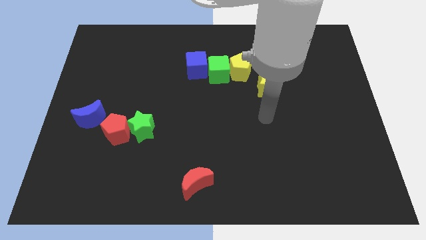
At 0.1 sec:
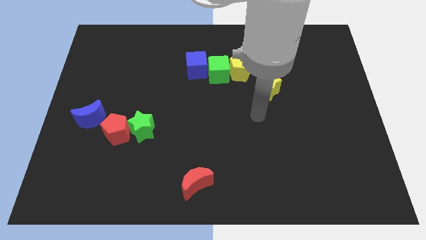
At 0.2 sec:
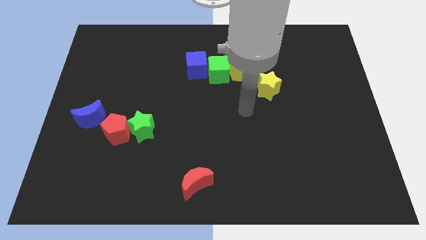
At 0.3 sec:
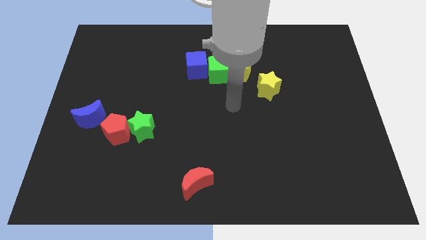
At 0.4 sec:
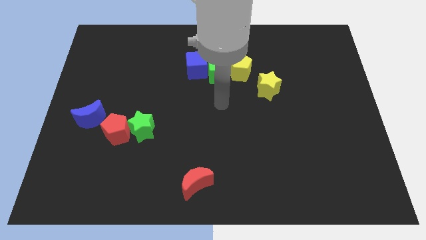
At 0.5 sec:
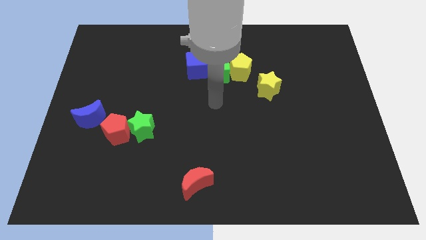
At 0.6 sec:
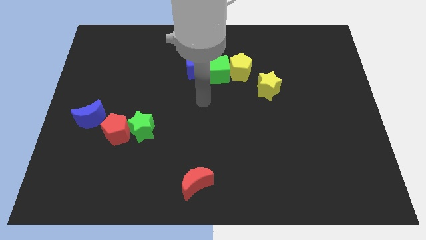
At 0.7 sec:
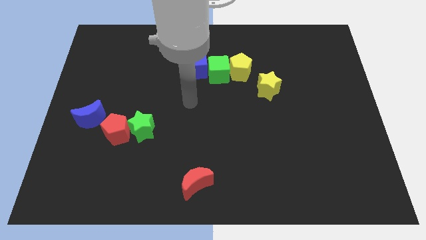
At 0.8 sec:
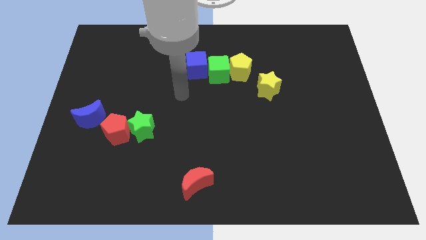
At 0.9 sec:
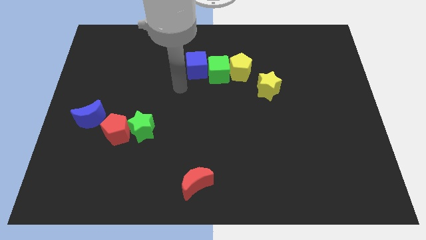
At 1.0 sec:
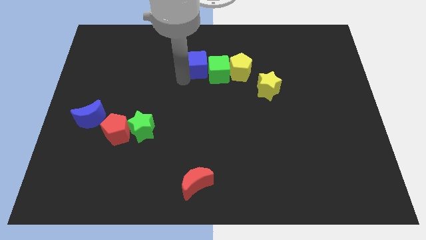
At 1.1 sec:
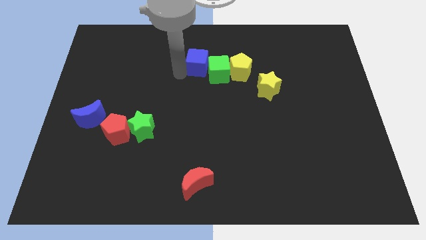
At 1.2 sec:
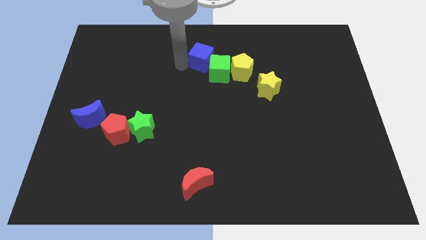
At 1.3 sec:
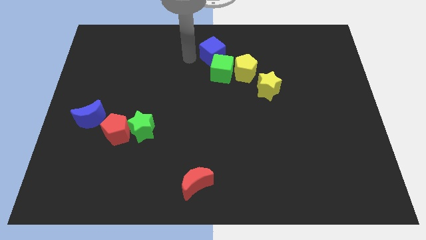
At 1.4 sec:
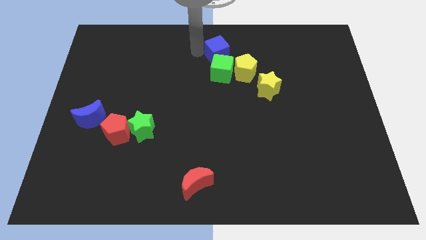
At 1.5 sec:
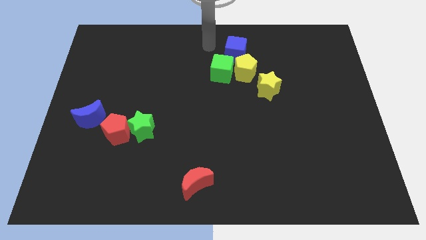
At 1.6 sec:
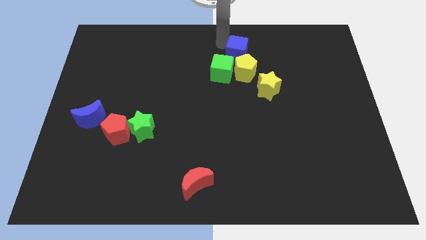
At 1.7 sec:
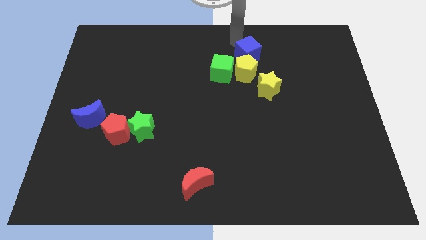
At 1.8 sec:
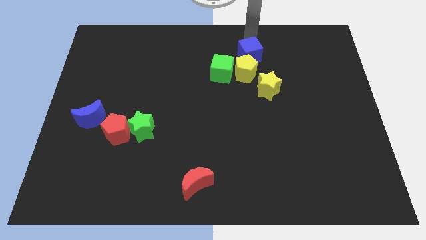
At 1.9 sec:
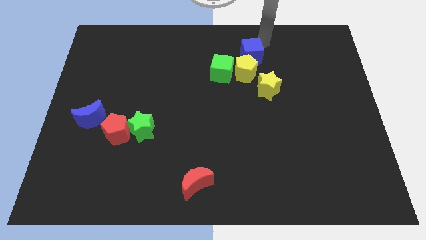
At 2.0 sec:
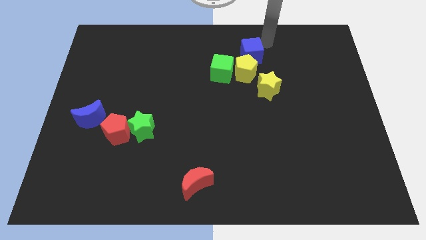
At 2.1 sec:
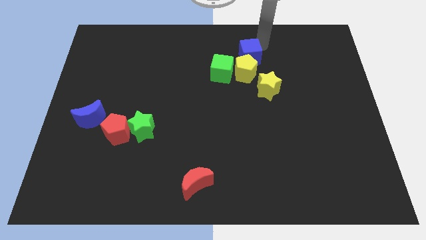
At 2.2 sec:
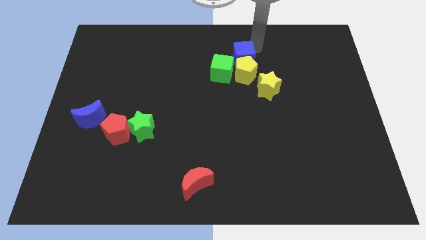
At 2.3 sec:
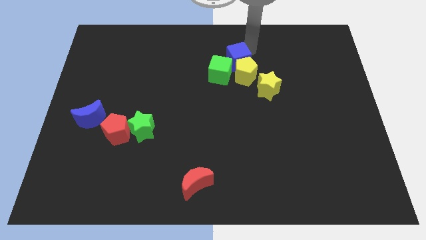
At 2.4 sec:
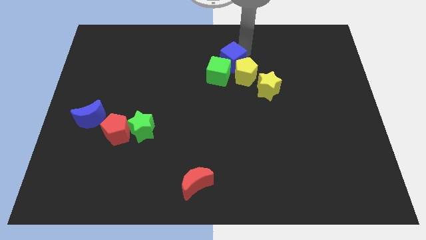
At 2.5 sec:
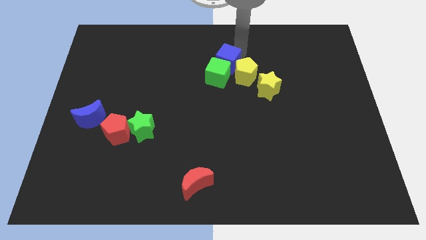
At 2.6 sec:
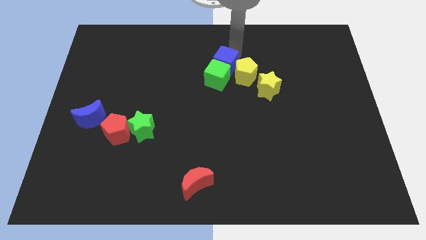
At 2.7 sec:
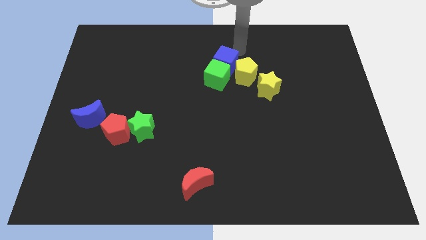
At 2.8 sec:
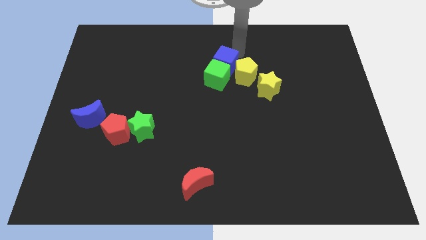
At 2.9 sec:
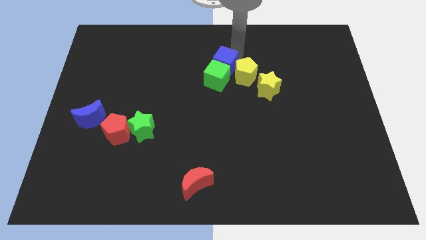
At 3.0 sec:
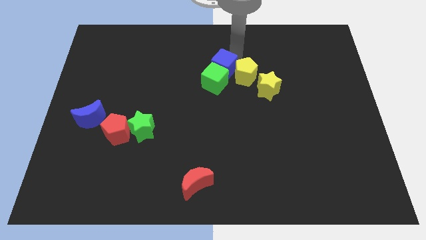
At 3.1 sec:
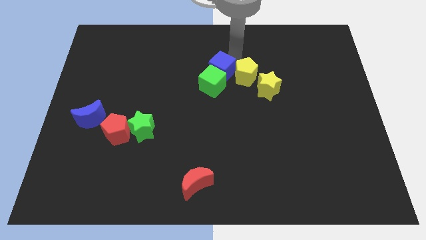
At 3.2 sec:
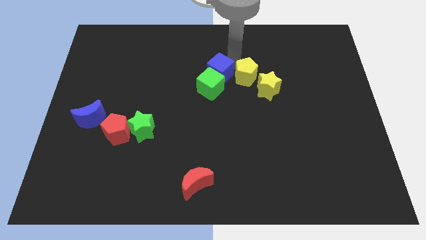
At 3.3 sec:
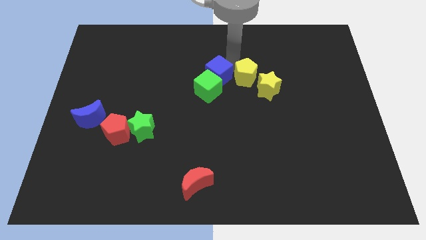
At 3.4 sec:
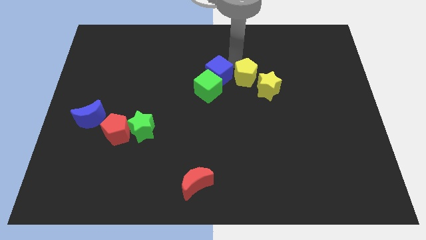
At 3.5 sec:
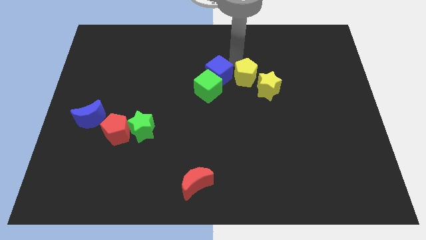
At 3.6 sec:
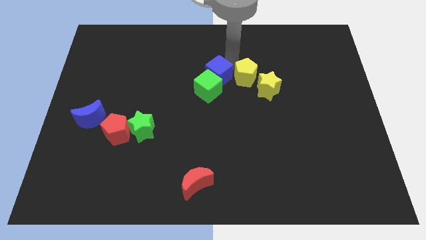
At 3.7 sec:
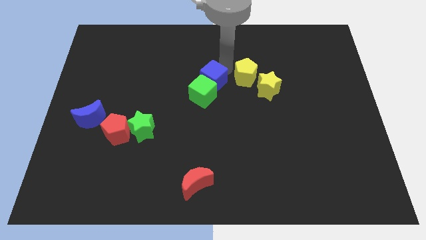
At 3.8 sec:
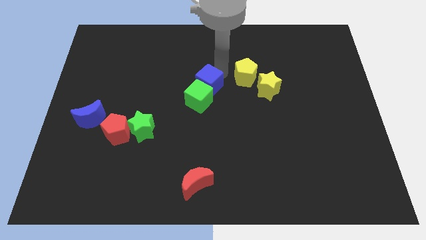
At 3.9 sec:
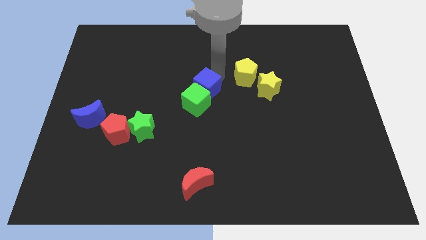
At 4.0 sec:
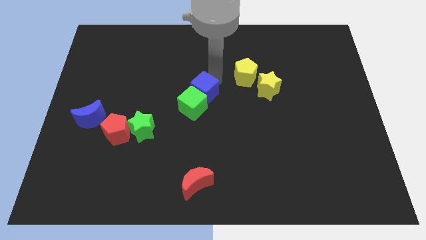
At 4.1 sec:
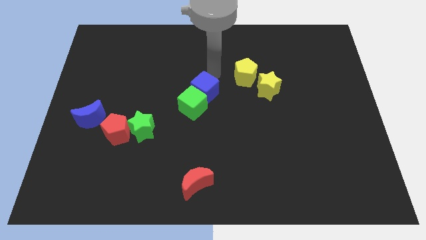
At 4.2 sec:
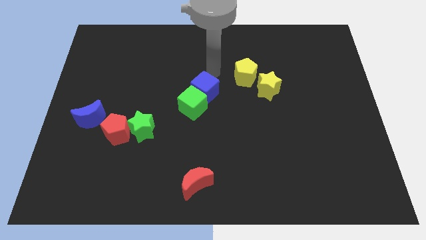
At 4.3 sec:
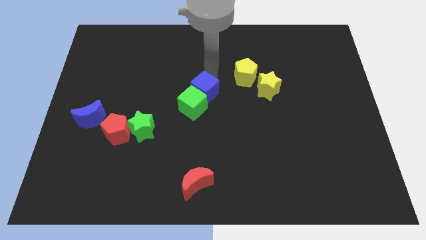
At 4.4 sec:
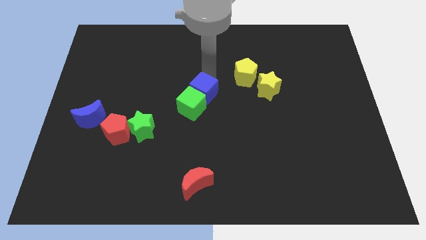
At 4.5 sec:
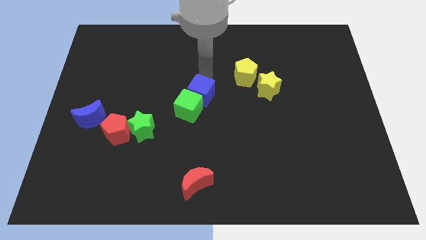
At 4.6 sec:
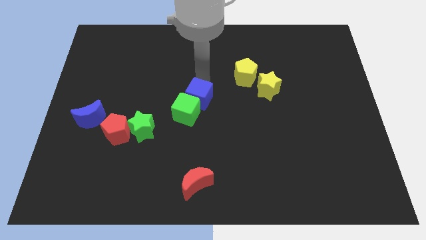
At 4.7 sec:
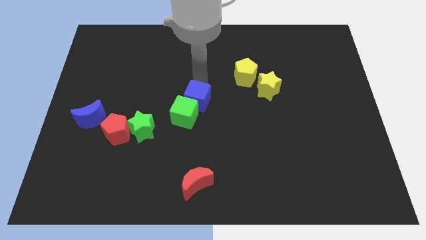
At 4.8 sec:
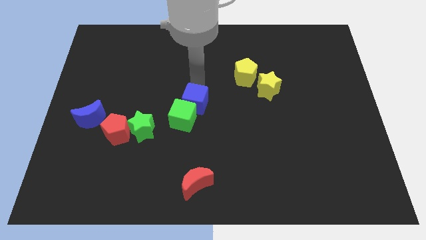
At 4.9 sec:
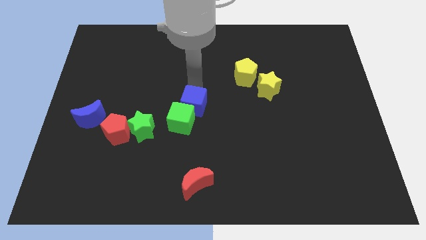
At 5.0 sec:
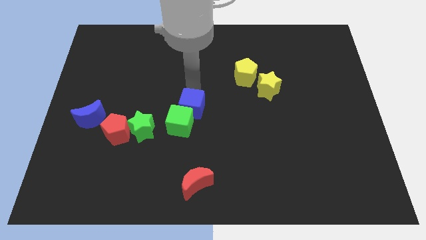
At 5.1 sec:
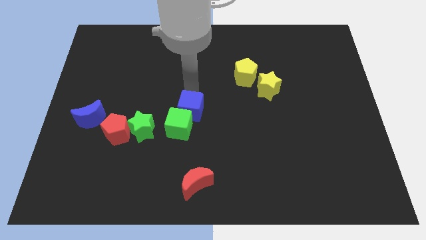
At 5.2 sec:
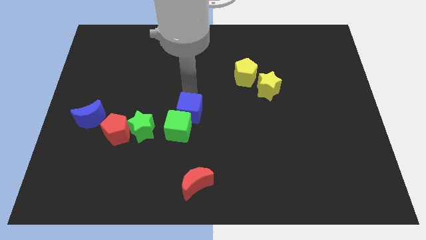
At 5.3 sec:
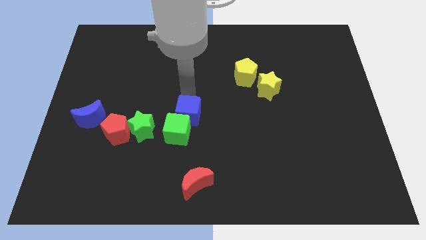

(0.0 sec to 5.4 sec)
push the blue cube to the right side of the green star
